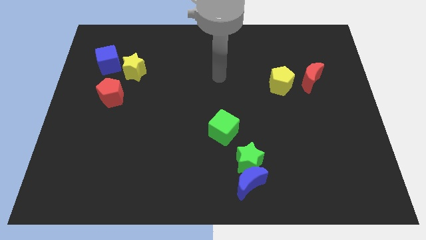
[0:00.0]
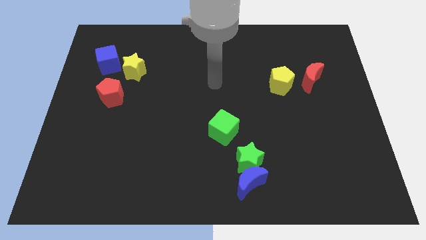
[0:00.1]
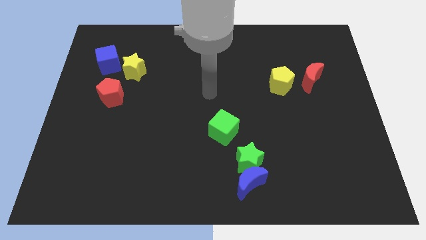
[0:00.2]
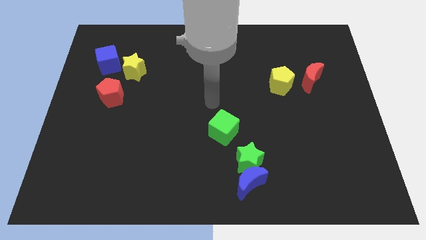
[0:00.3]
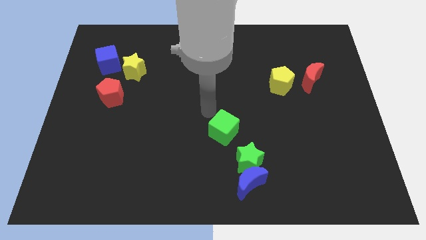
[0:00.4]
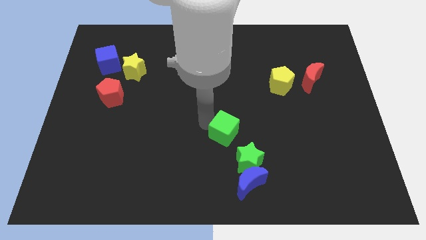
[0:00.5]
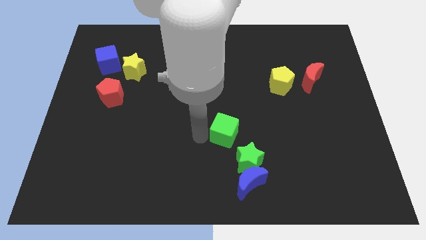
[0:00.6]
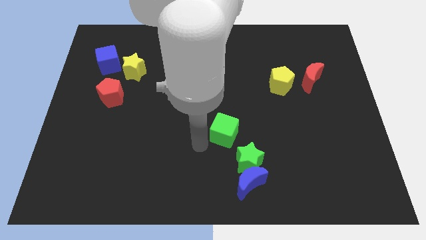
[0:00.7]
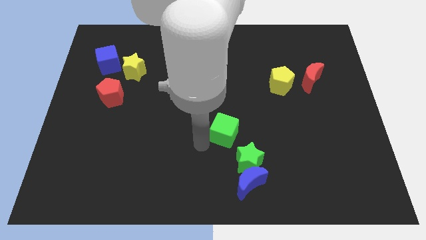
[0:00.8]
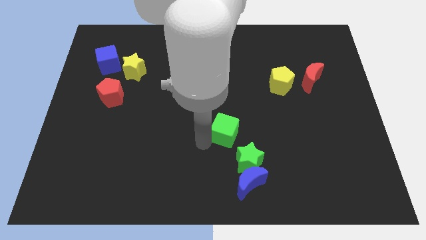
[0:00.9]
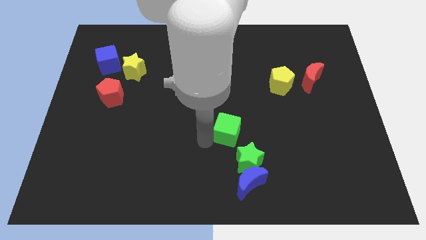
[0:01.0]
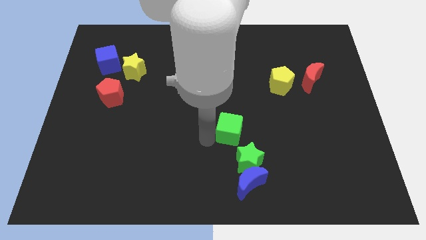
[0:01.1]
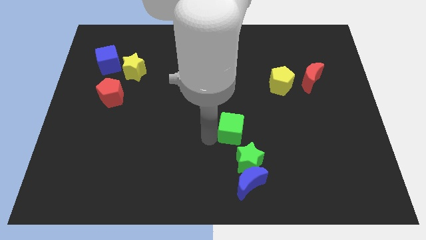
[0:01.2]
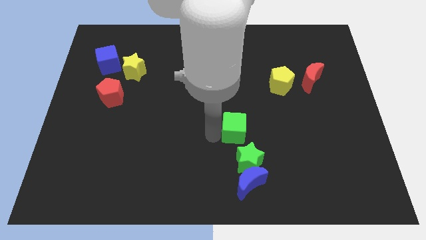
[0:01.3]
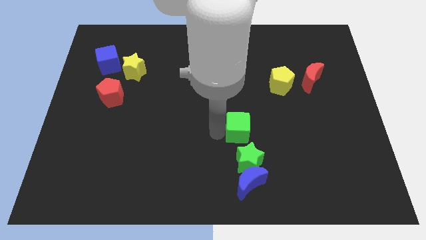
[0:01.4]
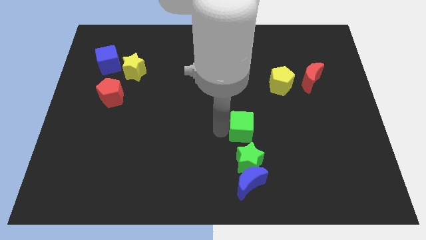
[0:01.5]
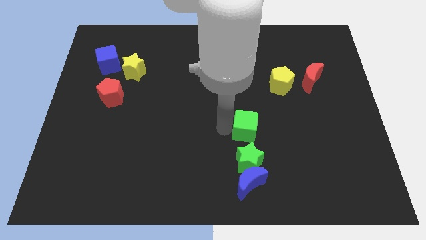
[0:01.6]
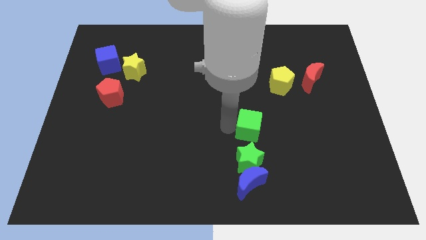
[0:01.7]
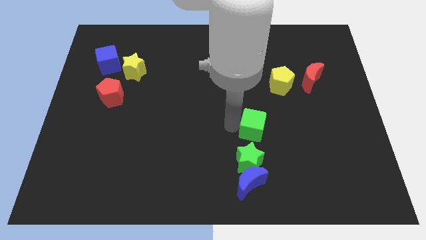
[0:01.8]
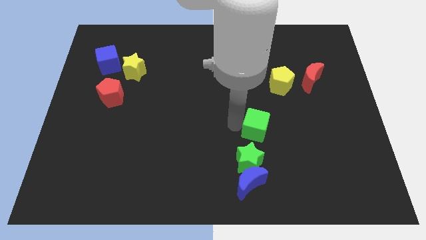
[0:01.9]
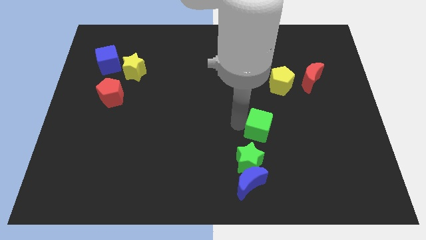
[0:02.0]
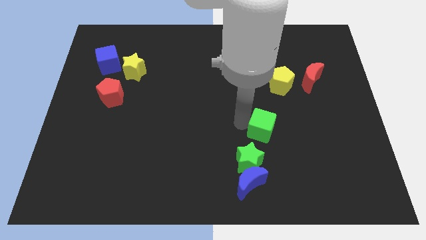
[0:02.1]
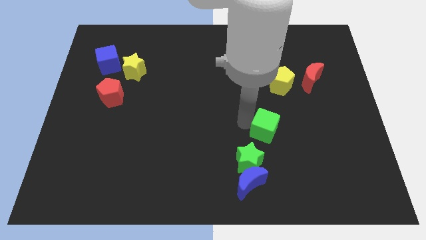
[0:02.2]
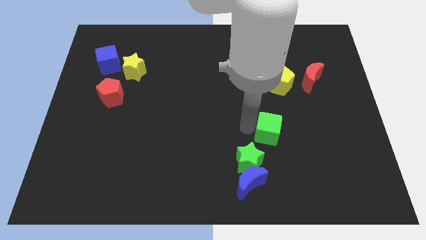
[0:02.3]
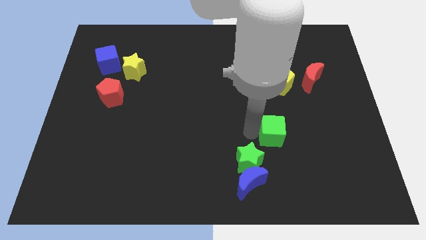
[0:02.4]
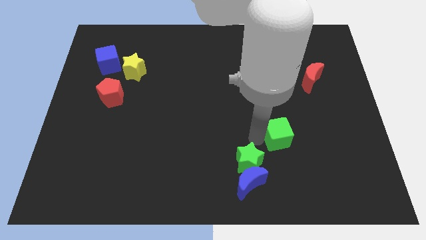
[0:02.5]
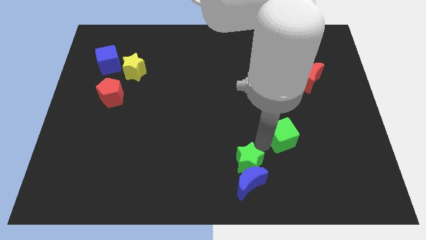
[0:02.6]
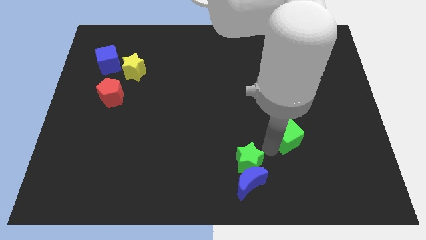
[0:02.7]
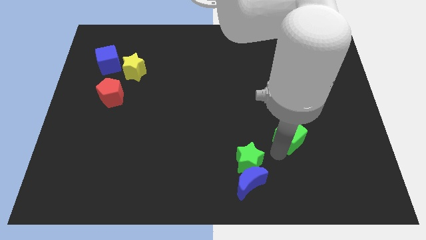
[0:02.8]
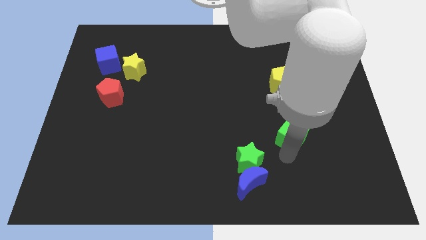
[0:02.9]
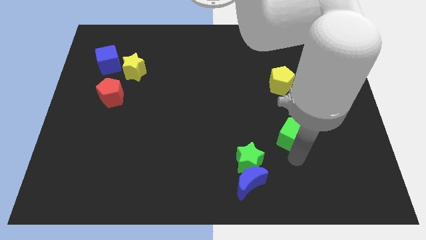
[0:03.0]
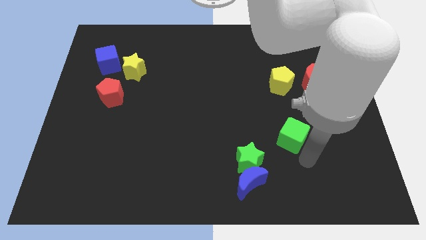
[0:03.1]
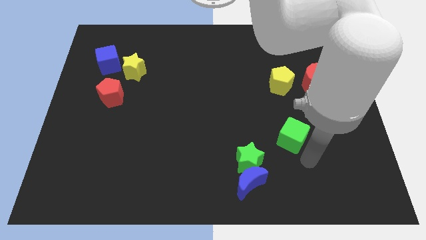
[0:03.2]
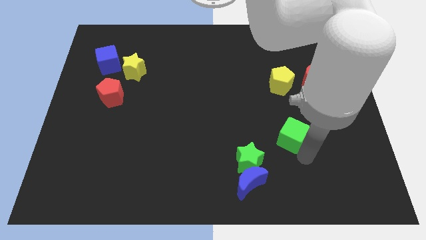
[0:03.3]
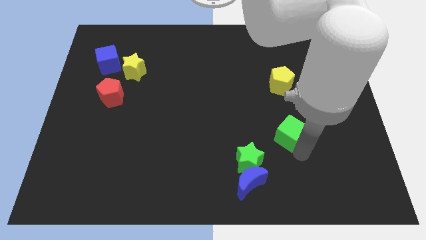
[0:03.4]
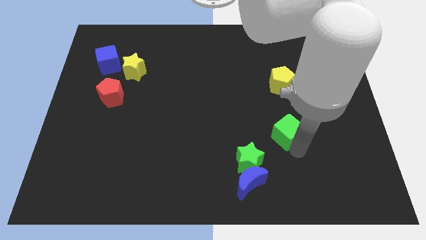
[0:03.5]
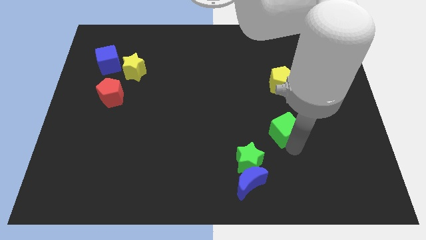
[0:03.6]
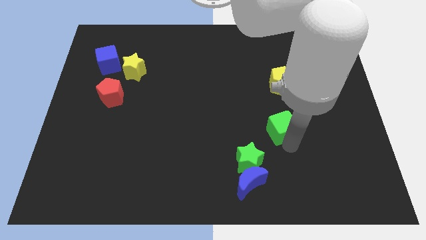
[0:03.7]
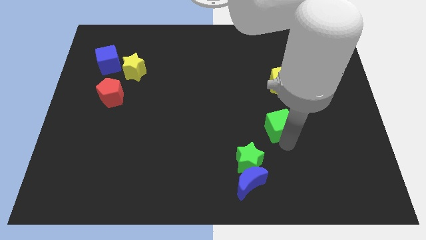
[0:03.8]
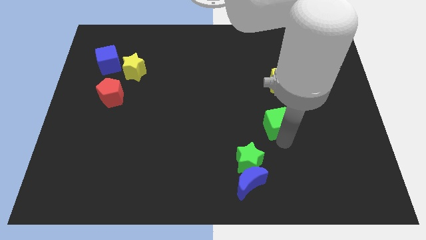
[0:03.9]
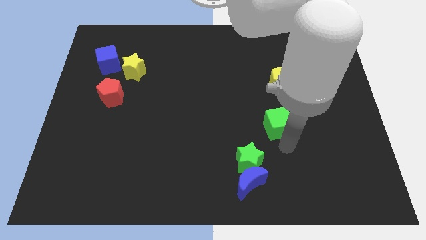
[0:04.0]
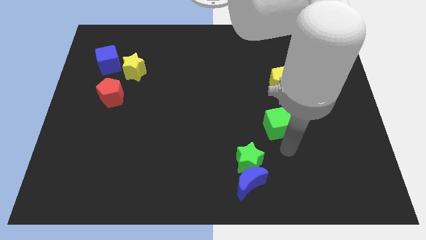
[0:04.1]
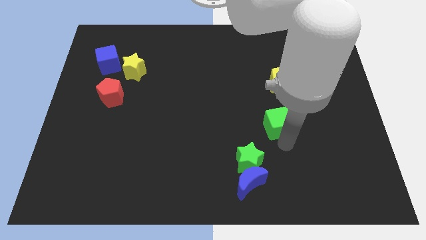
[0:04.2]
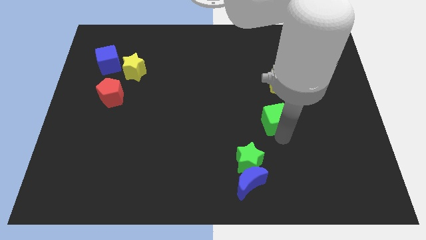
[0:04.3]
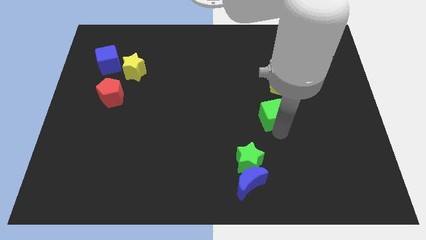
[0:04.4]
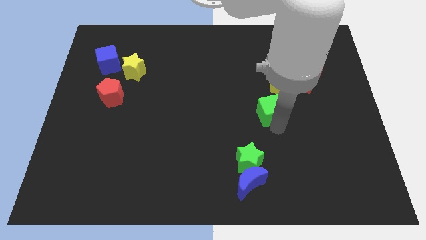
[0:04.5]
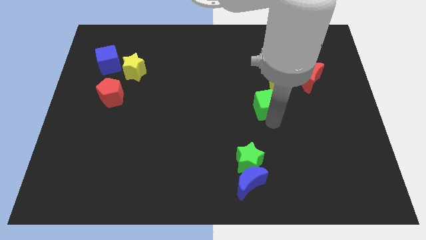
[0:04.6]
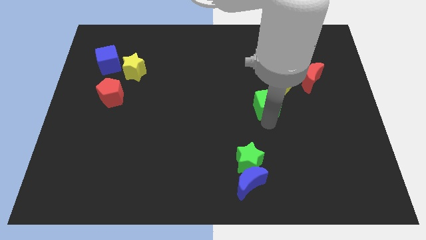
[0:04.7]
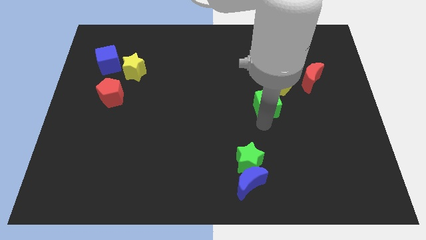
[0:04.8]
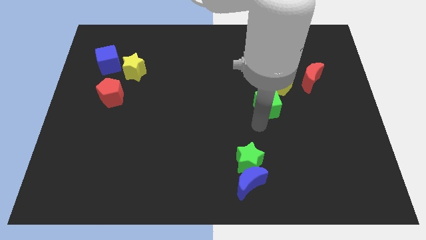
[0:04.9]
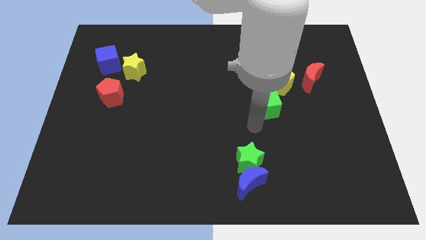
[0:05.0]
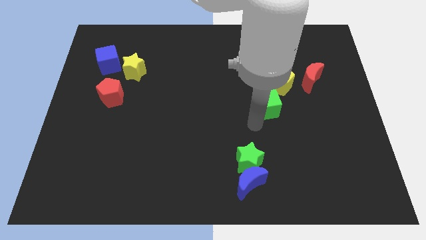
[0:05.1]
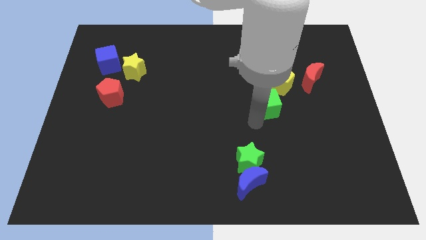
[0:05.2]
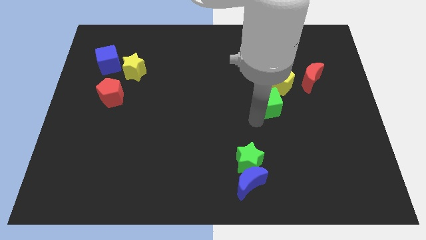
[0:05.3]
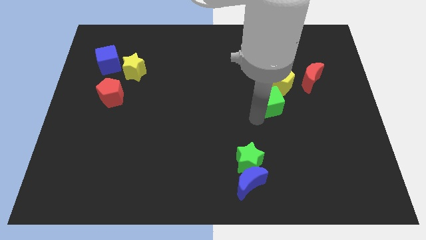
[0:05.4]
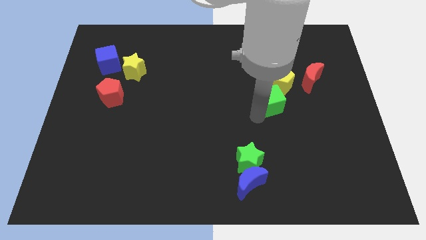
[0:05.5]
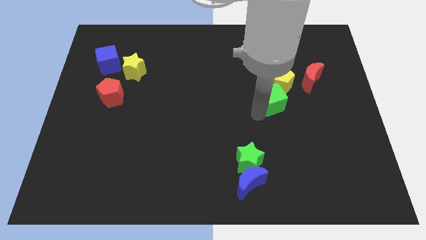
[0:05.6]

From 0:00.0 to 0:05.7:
slide the green cube next to the yellow pentagon

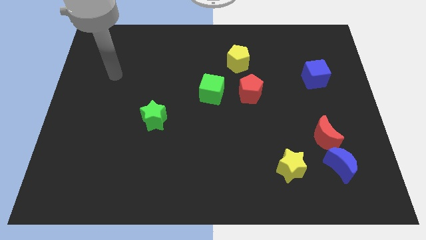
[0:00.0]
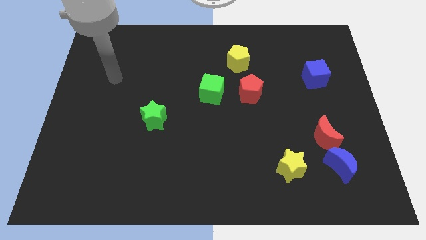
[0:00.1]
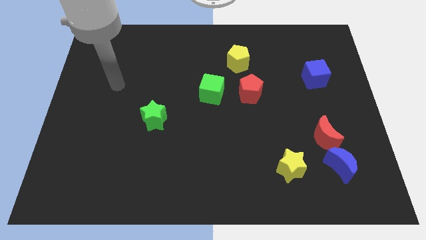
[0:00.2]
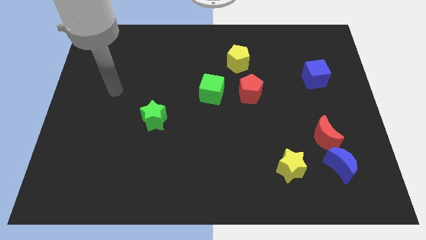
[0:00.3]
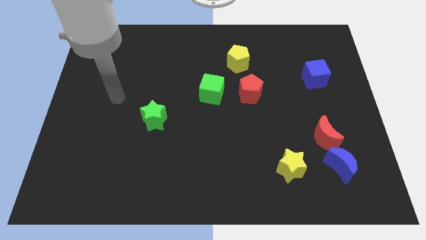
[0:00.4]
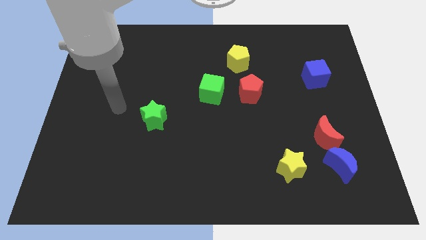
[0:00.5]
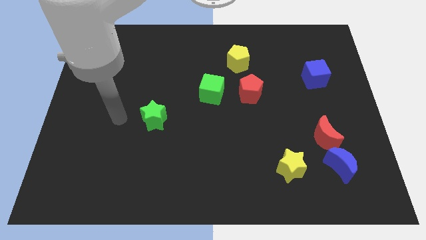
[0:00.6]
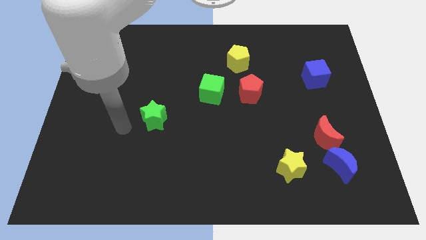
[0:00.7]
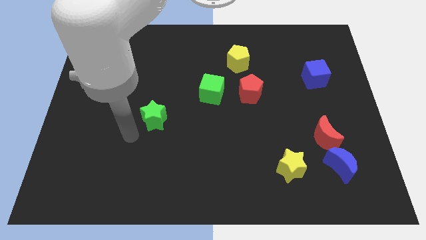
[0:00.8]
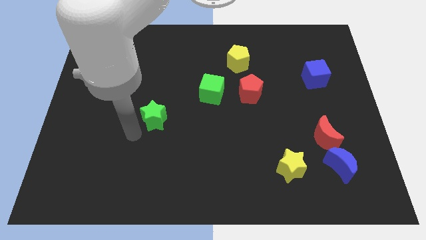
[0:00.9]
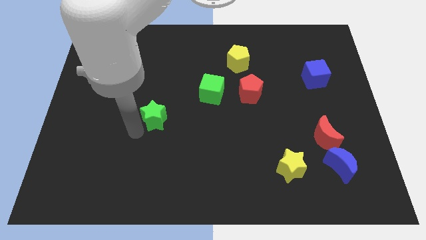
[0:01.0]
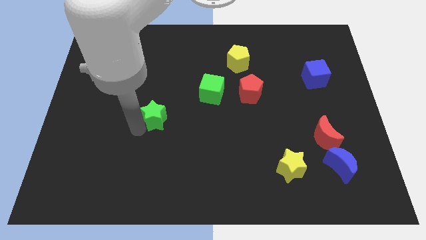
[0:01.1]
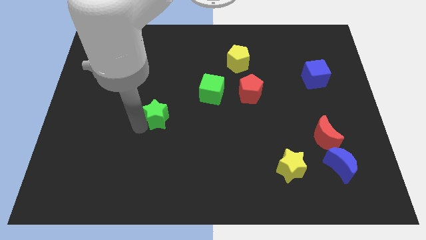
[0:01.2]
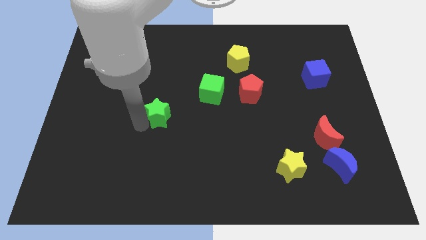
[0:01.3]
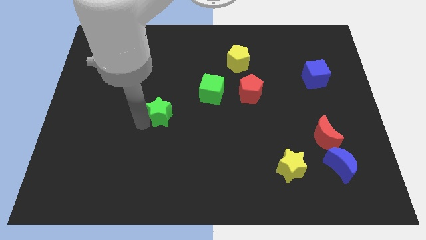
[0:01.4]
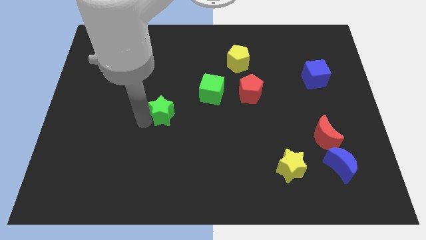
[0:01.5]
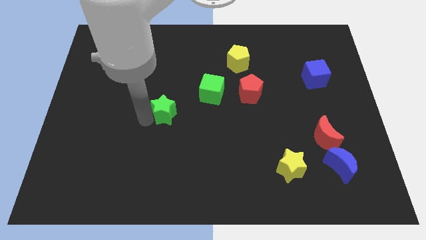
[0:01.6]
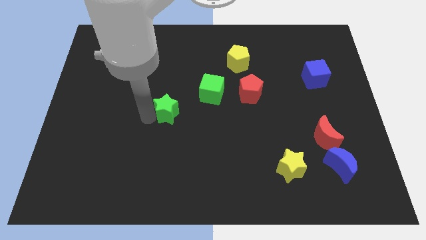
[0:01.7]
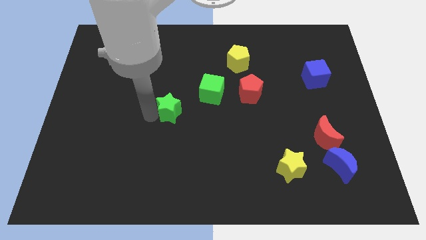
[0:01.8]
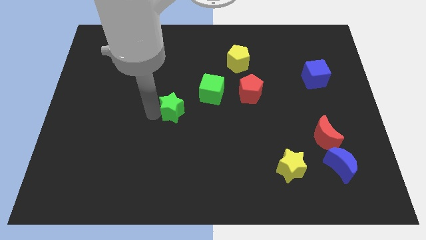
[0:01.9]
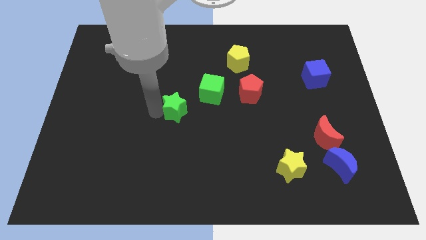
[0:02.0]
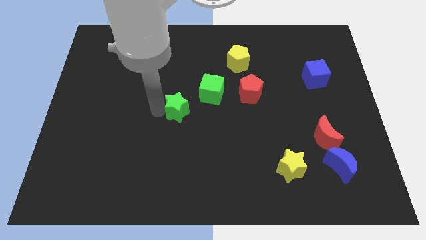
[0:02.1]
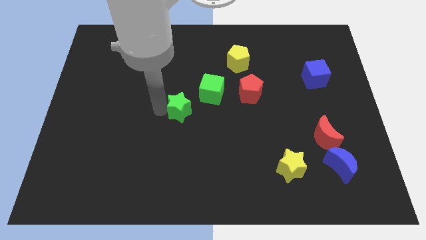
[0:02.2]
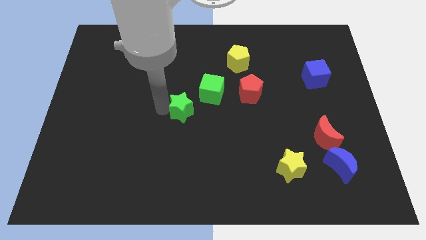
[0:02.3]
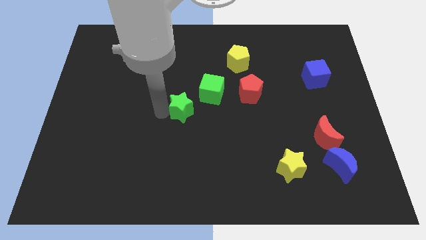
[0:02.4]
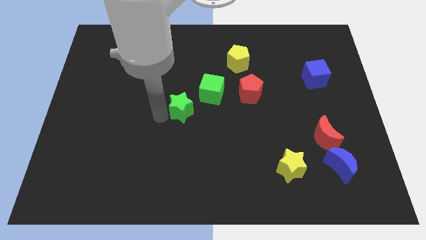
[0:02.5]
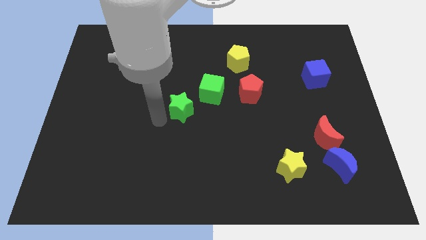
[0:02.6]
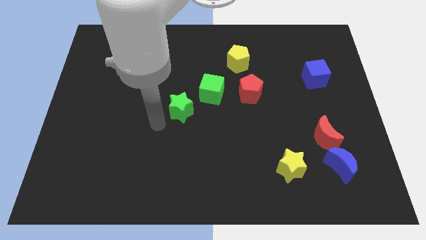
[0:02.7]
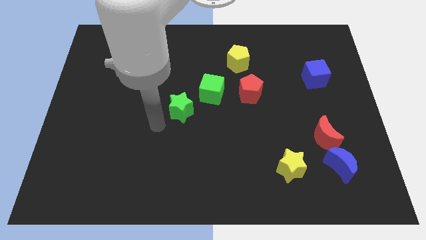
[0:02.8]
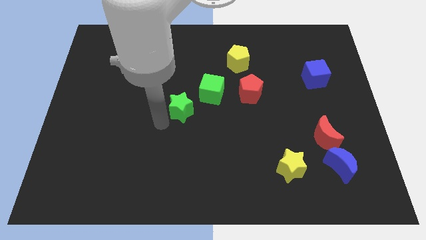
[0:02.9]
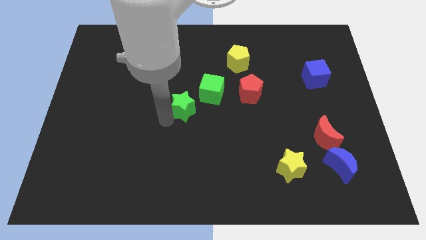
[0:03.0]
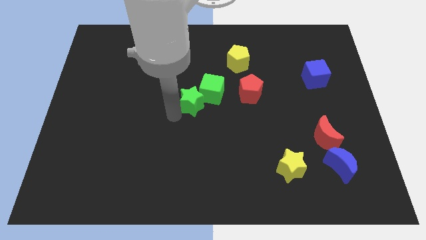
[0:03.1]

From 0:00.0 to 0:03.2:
slide the green star towards the green cube
